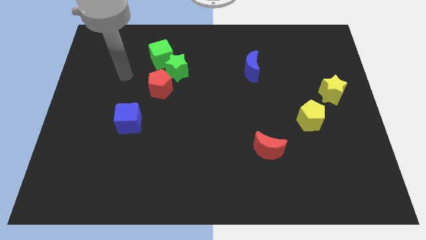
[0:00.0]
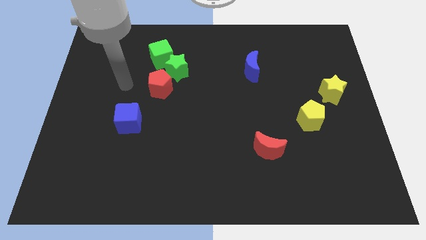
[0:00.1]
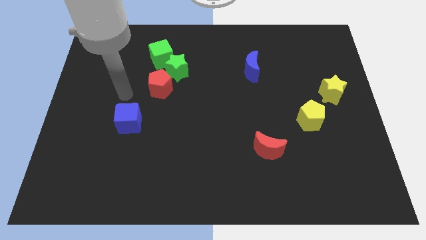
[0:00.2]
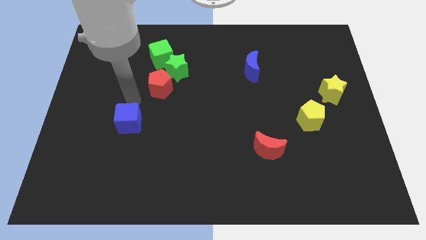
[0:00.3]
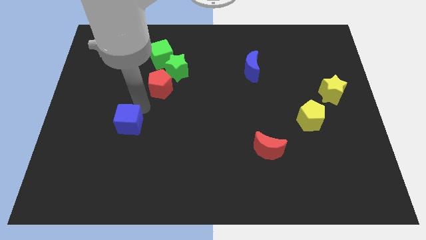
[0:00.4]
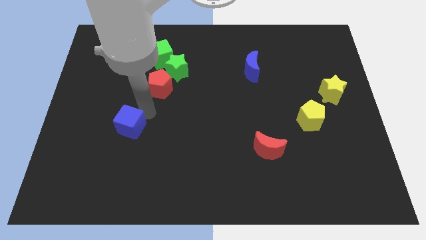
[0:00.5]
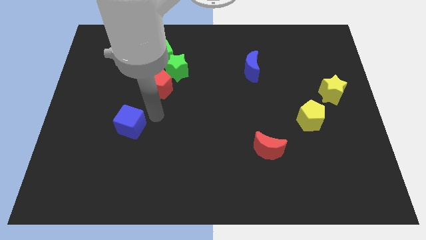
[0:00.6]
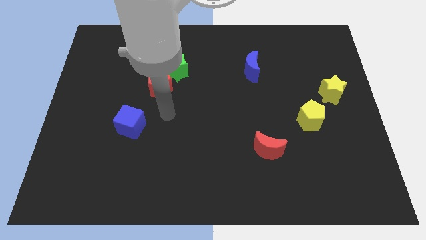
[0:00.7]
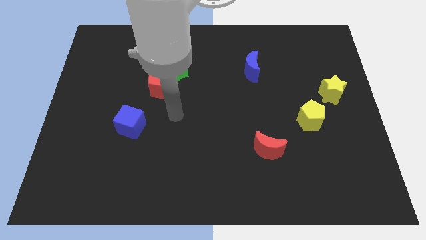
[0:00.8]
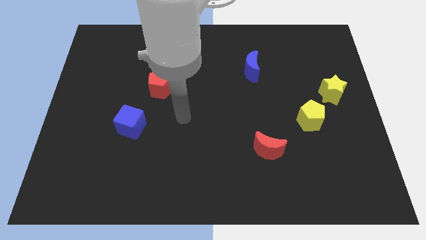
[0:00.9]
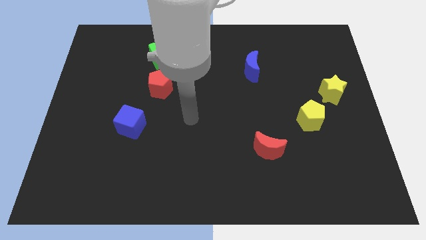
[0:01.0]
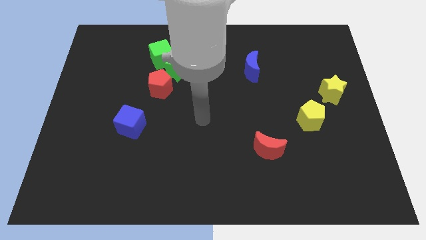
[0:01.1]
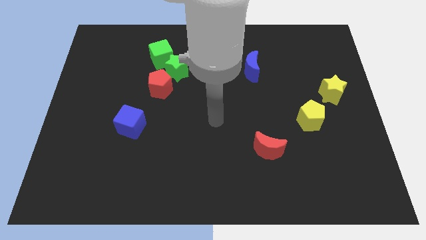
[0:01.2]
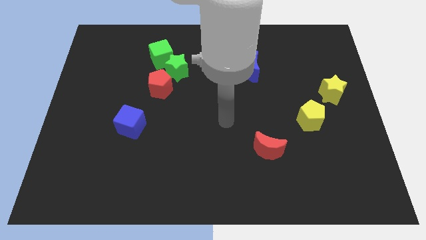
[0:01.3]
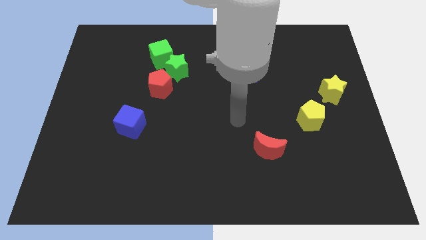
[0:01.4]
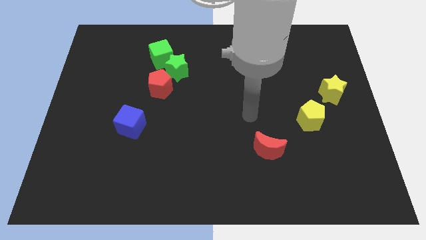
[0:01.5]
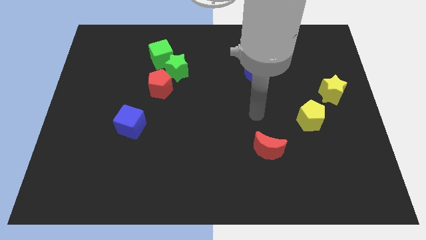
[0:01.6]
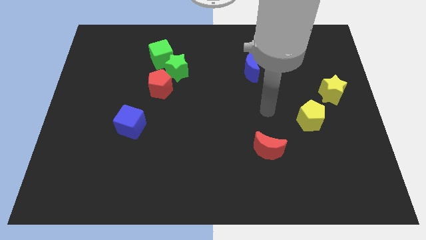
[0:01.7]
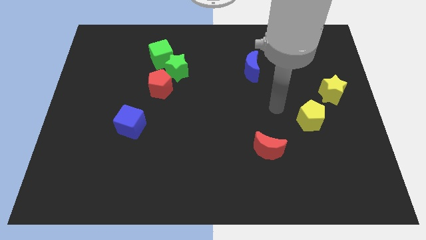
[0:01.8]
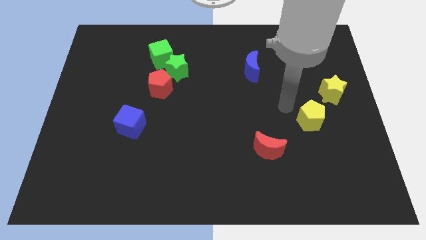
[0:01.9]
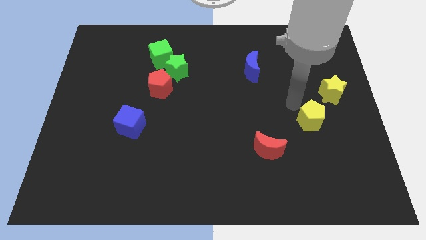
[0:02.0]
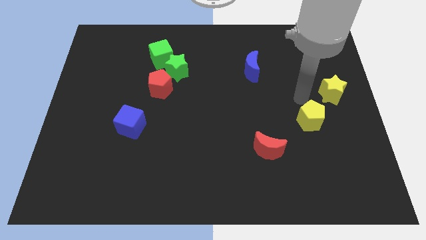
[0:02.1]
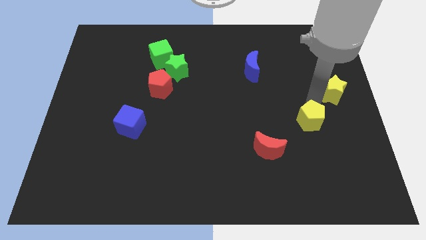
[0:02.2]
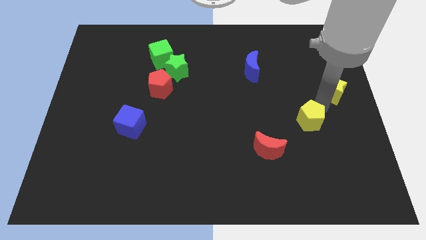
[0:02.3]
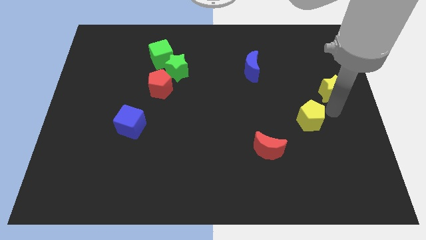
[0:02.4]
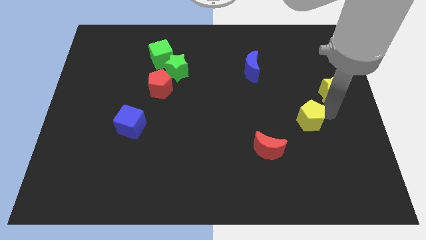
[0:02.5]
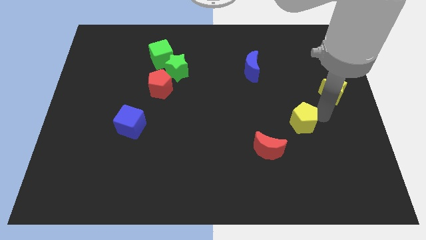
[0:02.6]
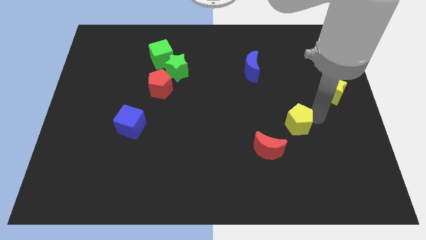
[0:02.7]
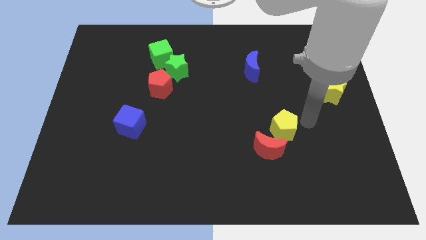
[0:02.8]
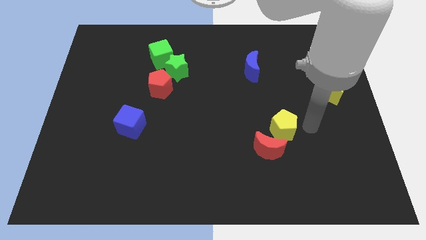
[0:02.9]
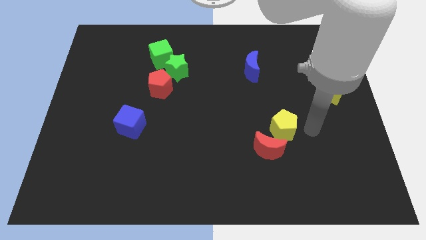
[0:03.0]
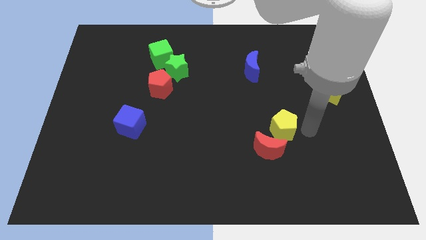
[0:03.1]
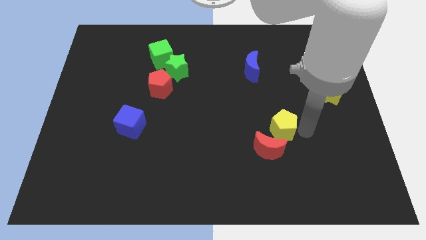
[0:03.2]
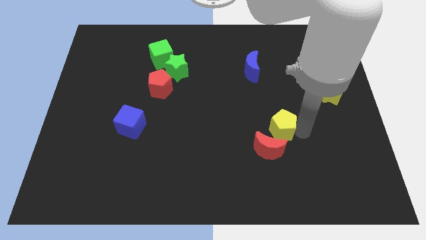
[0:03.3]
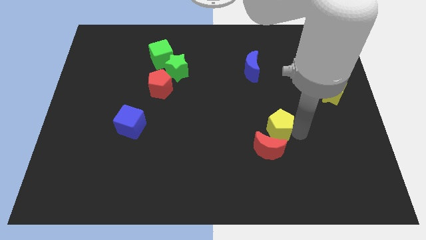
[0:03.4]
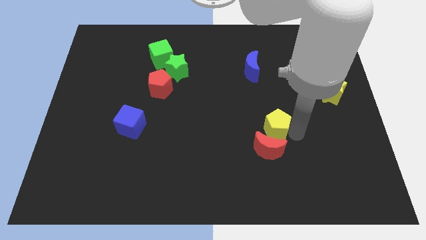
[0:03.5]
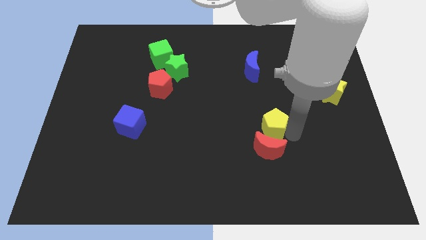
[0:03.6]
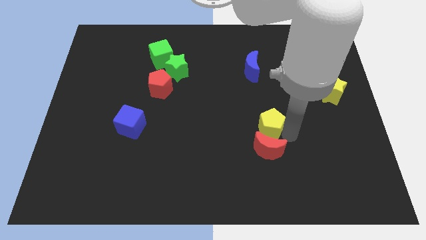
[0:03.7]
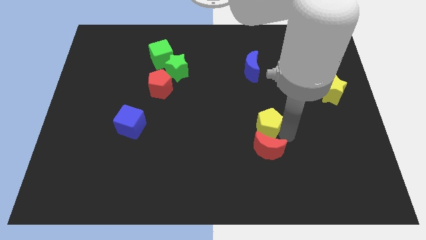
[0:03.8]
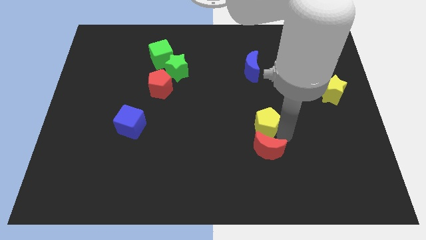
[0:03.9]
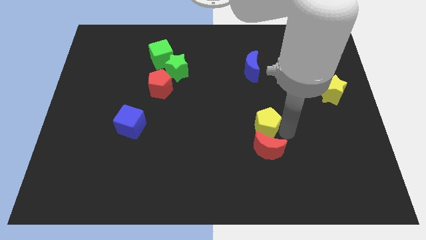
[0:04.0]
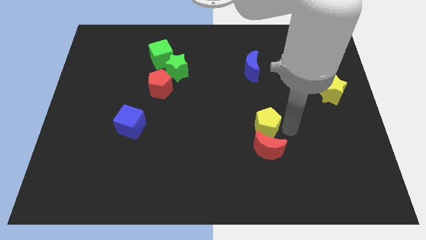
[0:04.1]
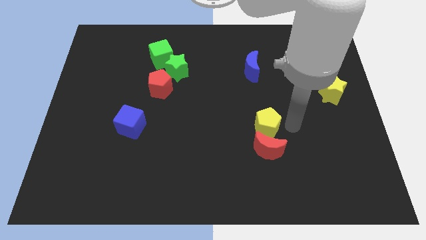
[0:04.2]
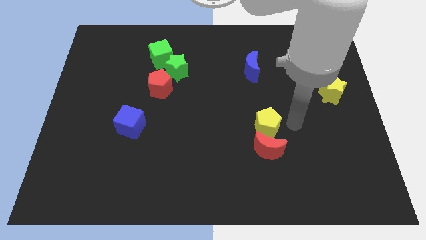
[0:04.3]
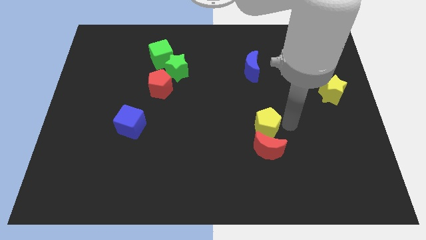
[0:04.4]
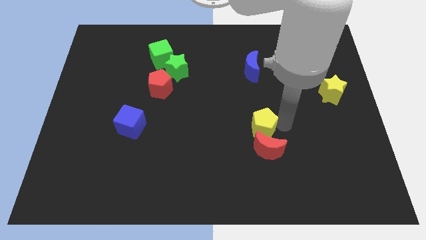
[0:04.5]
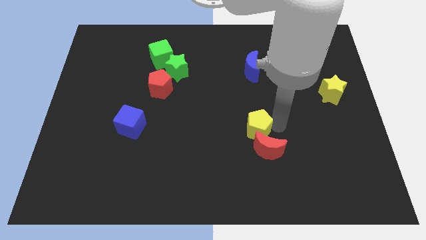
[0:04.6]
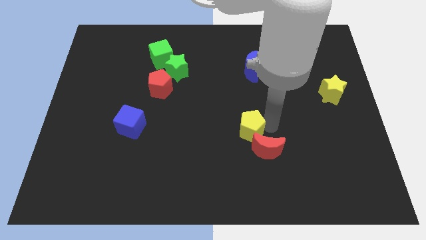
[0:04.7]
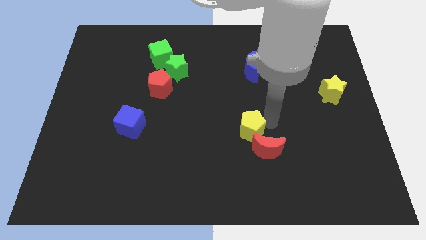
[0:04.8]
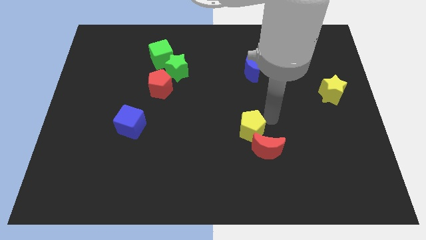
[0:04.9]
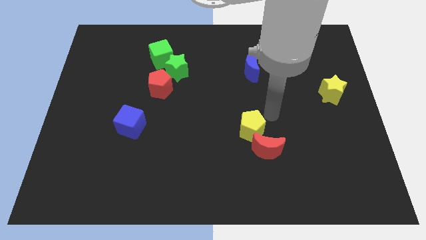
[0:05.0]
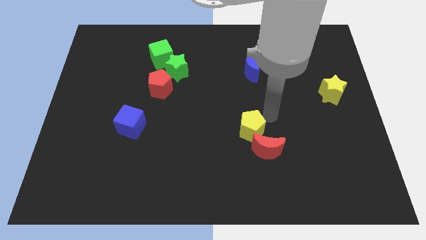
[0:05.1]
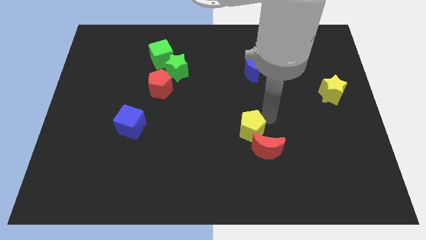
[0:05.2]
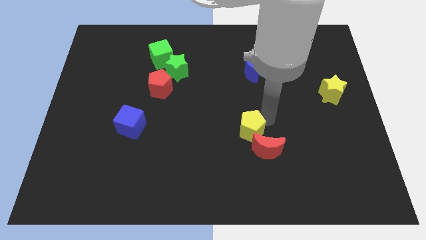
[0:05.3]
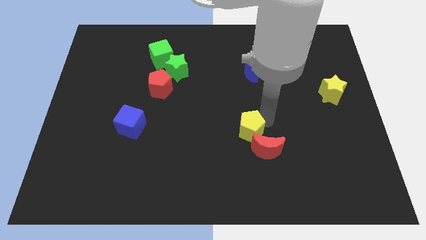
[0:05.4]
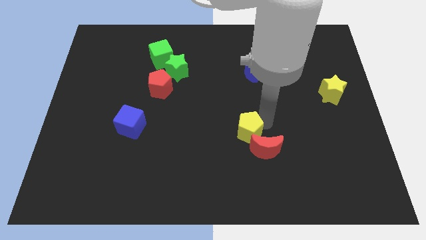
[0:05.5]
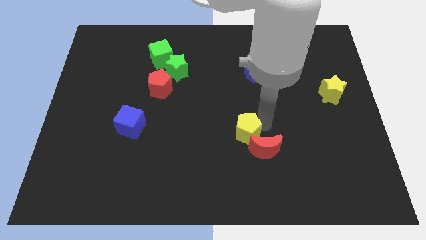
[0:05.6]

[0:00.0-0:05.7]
push the yellow pentagon left of the red moon
